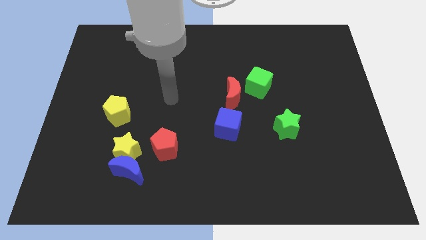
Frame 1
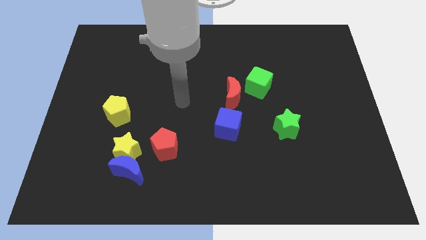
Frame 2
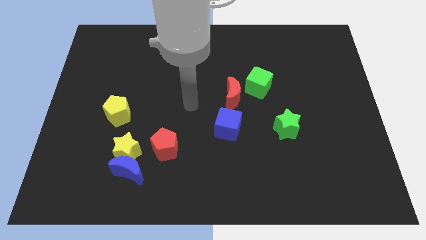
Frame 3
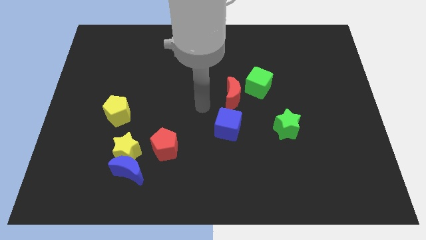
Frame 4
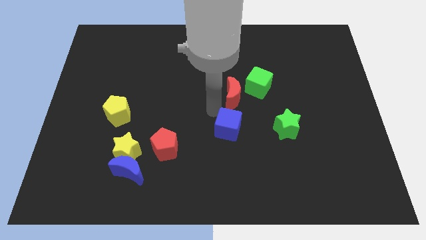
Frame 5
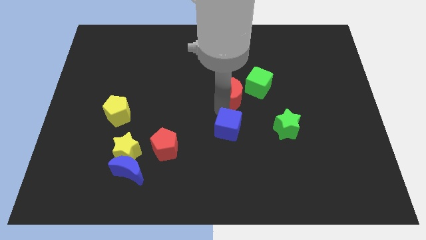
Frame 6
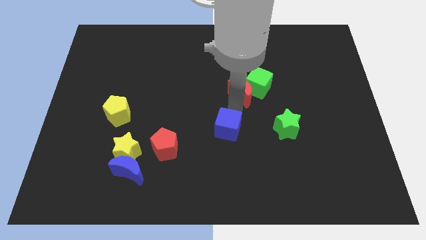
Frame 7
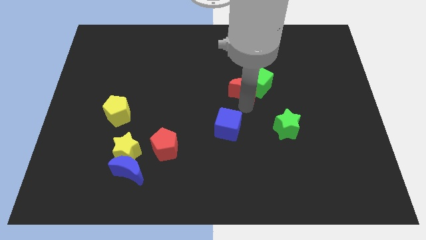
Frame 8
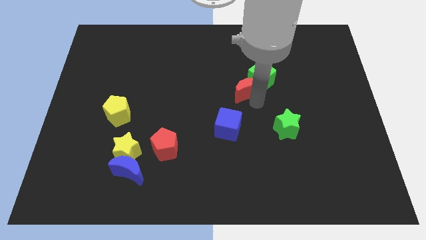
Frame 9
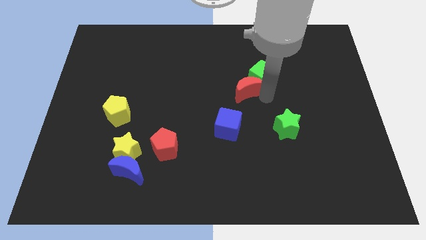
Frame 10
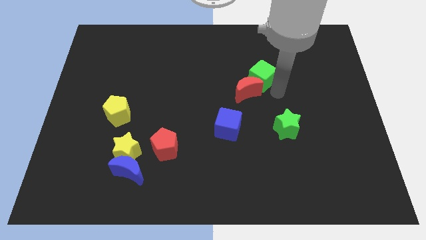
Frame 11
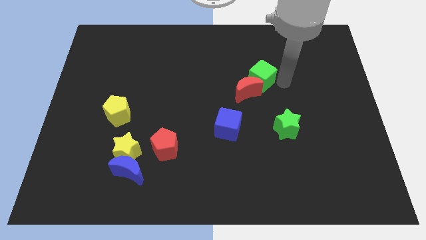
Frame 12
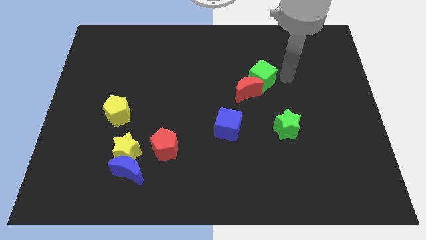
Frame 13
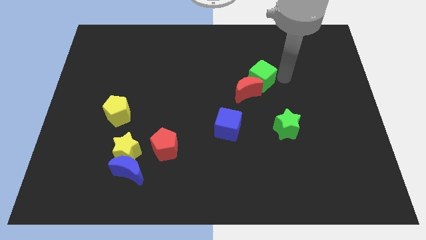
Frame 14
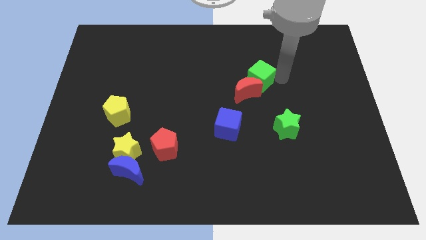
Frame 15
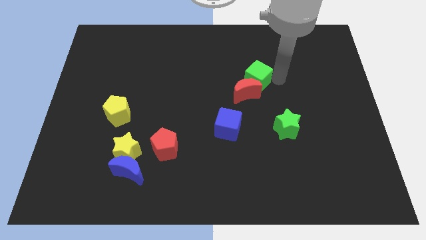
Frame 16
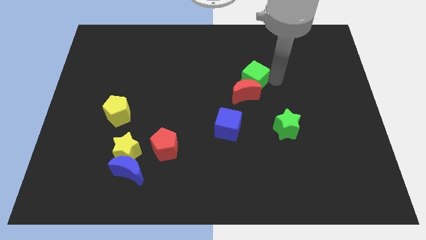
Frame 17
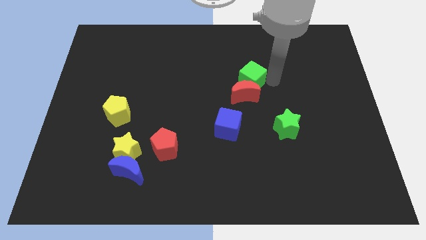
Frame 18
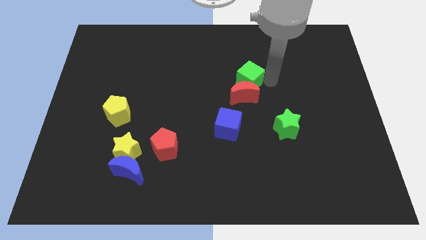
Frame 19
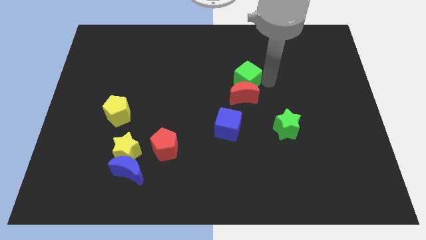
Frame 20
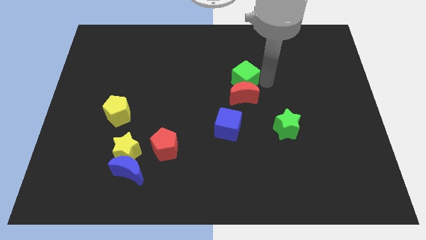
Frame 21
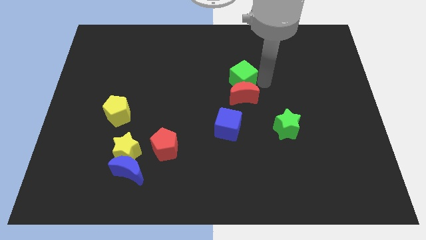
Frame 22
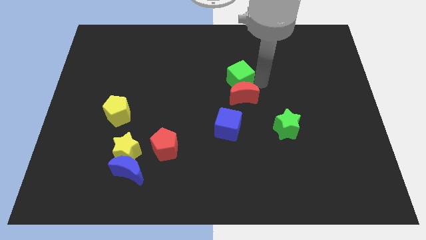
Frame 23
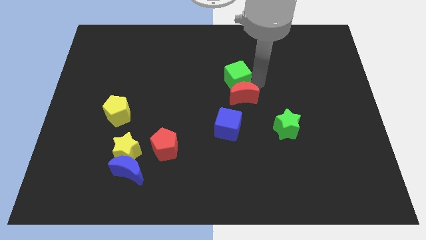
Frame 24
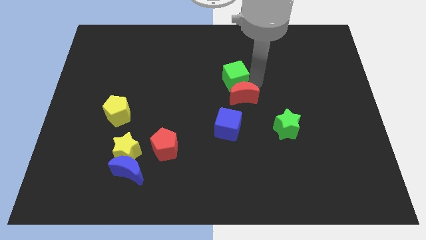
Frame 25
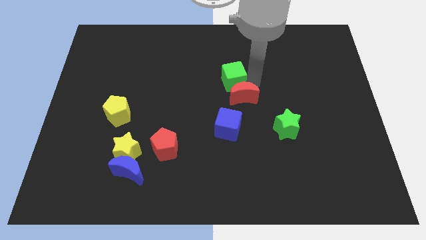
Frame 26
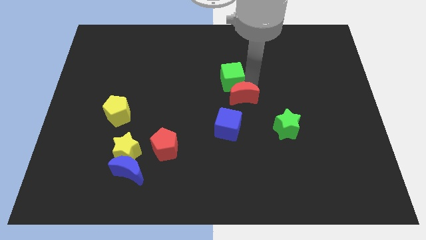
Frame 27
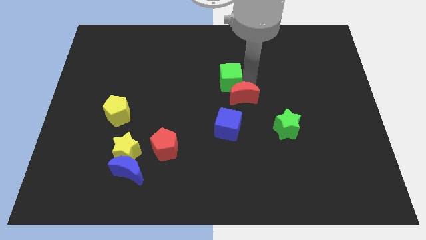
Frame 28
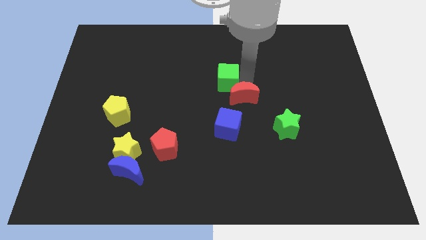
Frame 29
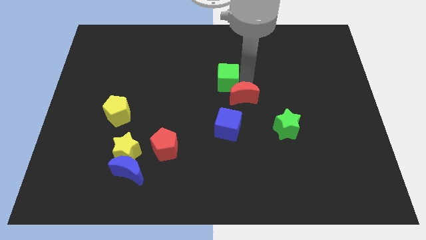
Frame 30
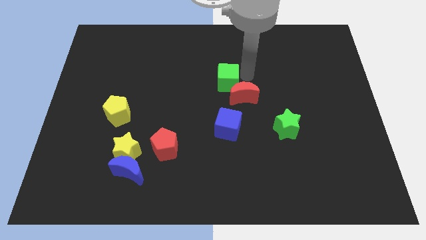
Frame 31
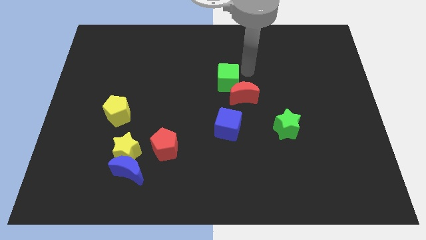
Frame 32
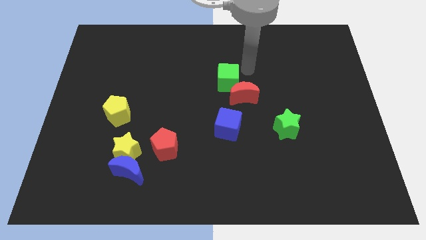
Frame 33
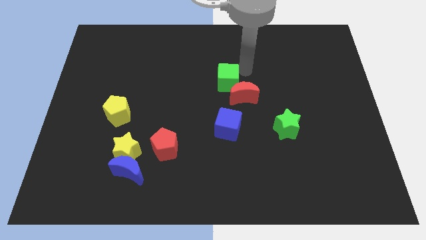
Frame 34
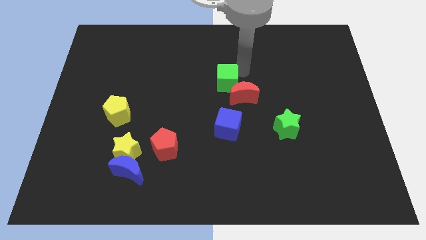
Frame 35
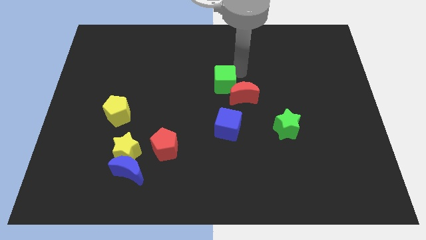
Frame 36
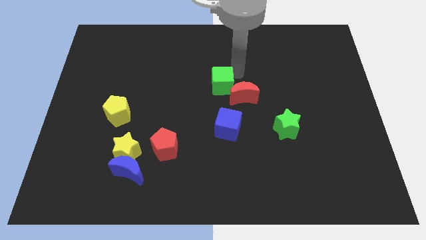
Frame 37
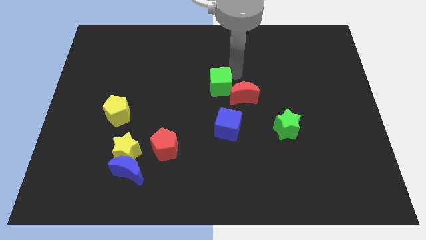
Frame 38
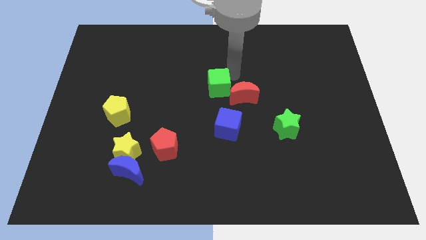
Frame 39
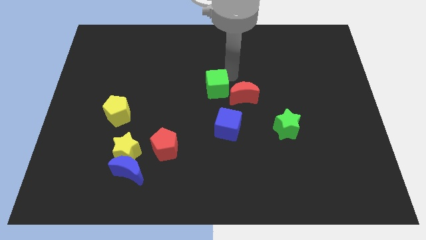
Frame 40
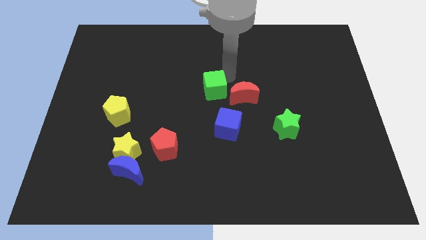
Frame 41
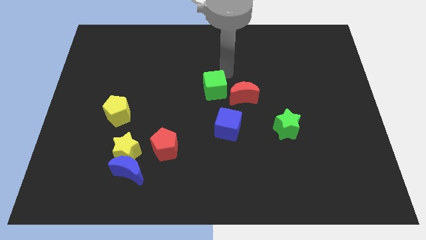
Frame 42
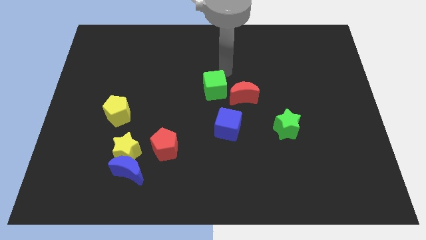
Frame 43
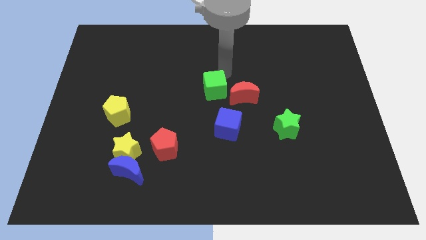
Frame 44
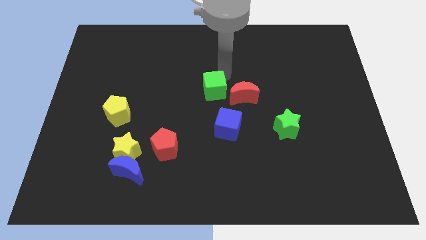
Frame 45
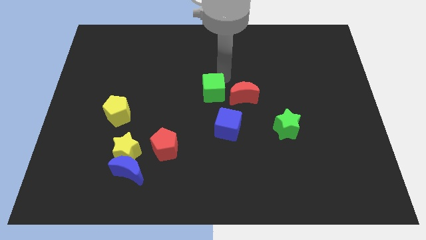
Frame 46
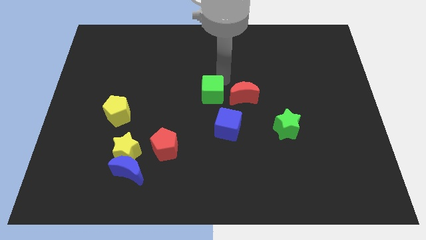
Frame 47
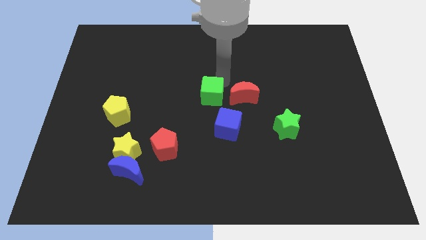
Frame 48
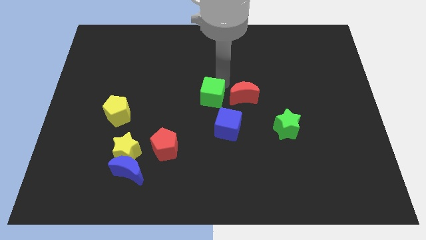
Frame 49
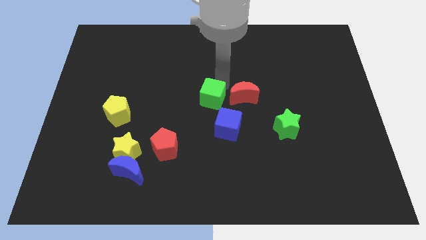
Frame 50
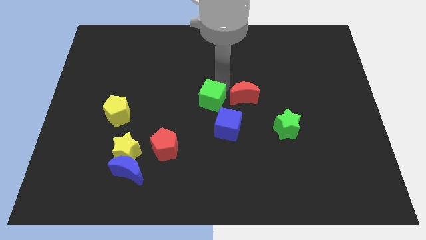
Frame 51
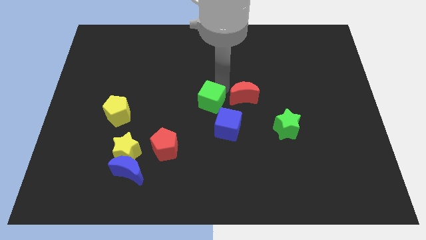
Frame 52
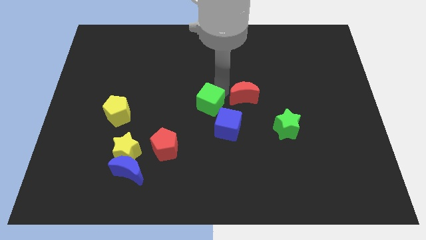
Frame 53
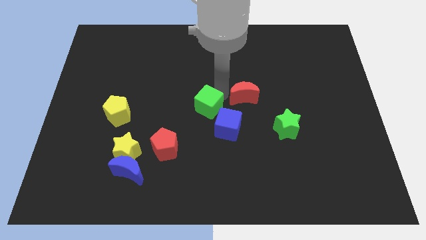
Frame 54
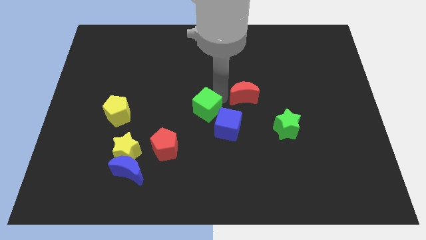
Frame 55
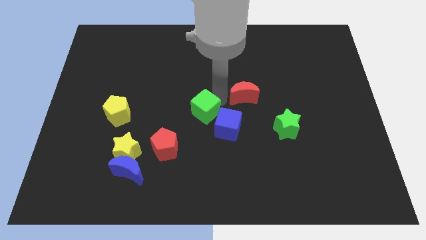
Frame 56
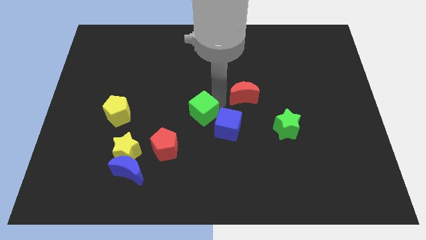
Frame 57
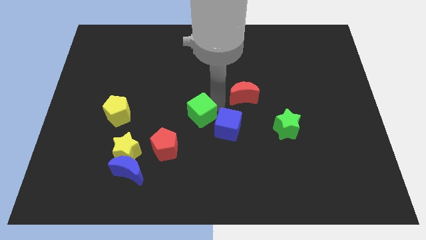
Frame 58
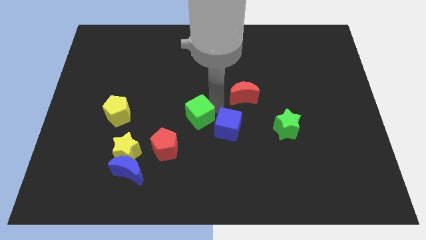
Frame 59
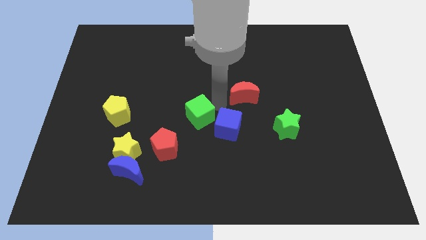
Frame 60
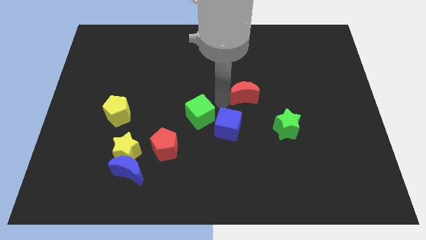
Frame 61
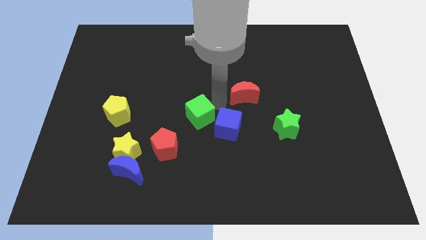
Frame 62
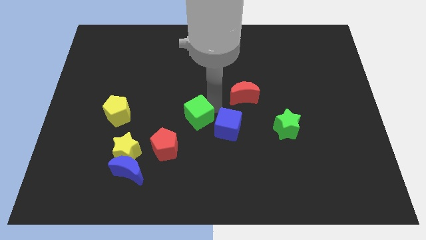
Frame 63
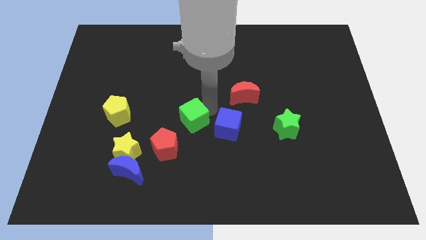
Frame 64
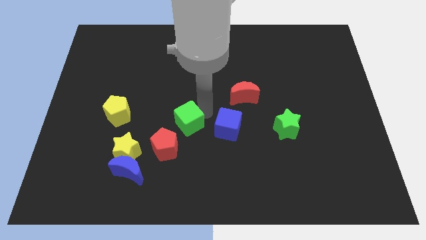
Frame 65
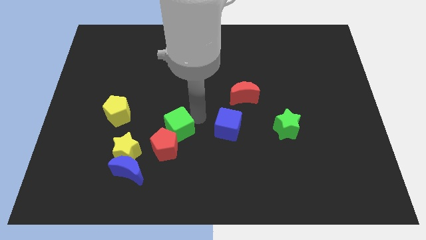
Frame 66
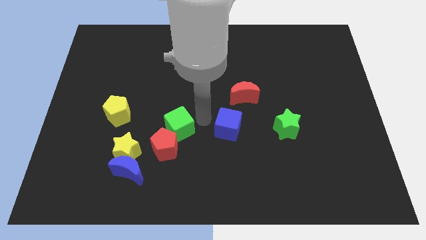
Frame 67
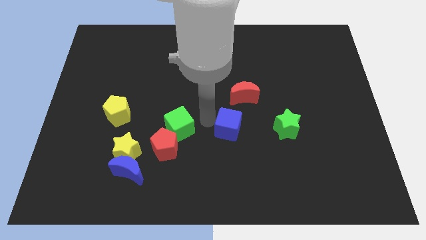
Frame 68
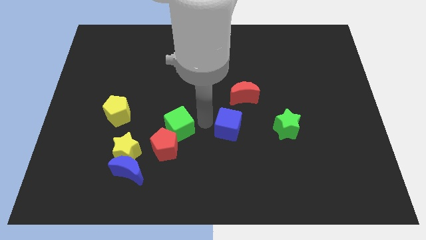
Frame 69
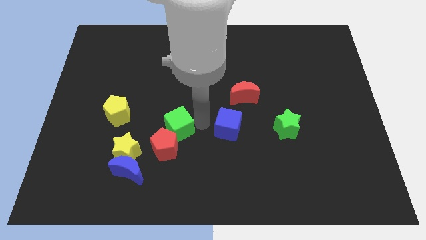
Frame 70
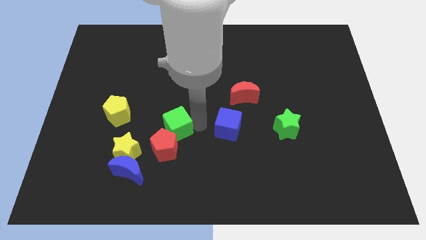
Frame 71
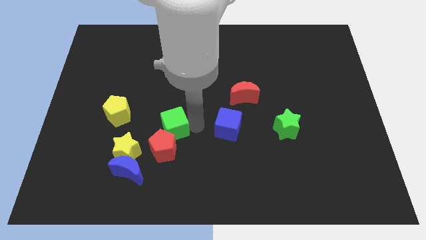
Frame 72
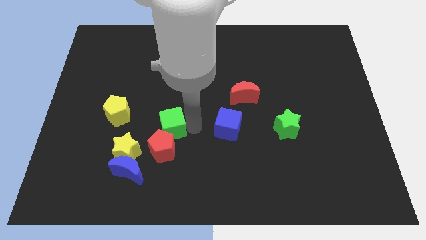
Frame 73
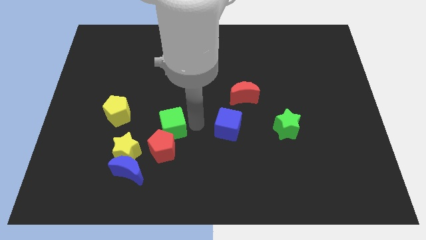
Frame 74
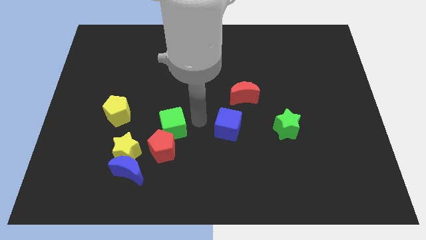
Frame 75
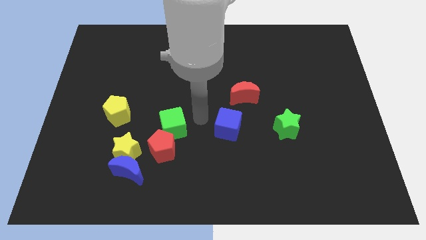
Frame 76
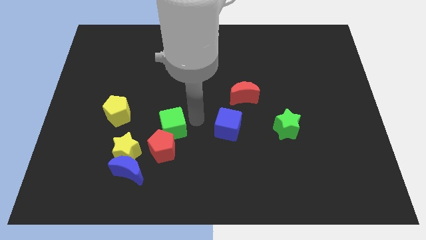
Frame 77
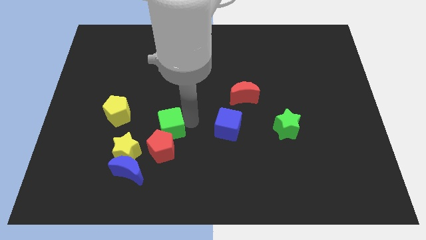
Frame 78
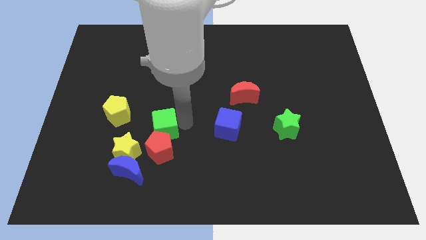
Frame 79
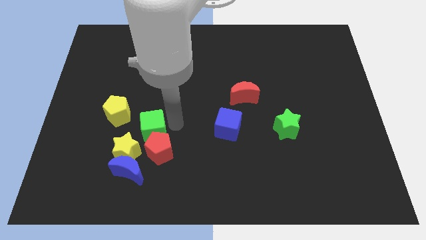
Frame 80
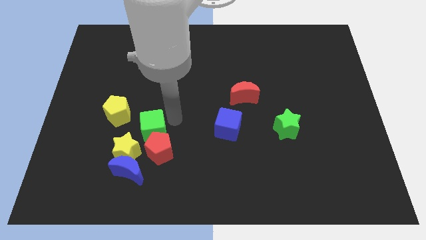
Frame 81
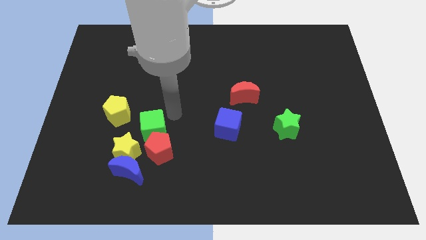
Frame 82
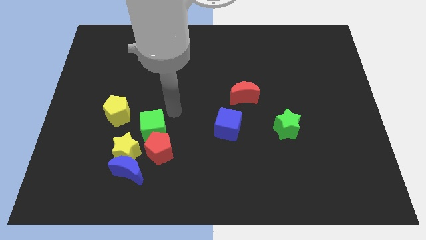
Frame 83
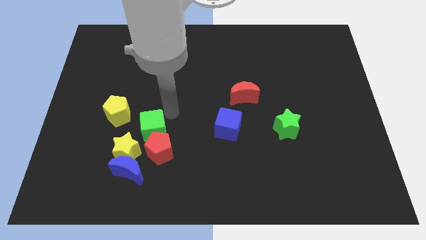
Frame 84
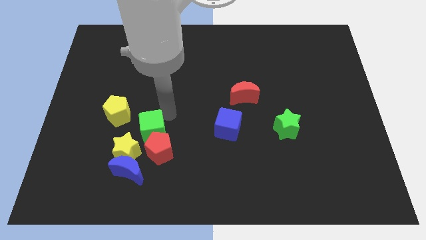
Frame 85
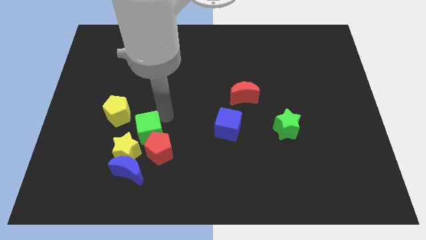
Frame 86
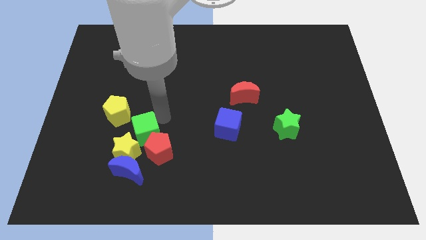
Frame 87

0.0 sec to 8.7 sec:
put the green cube close to the yellow star
